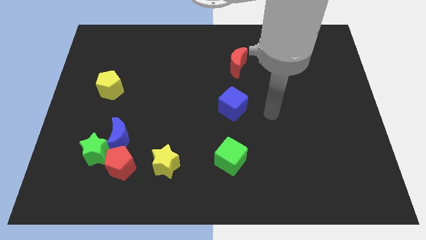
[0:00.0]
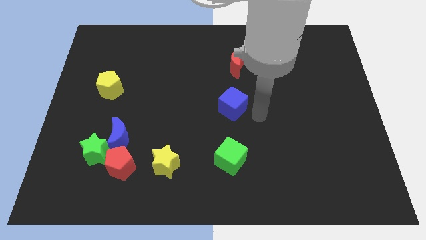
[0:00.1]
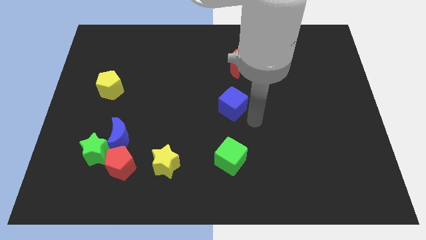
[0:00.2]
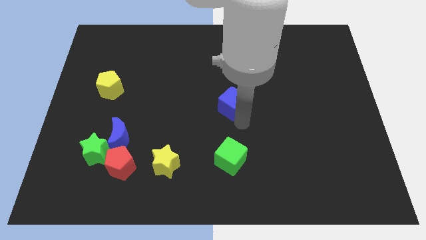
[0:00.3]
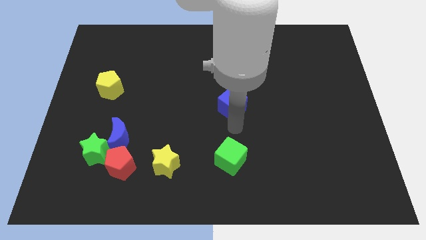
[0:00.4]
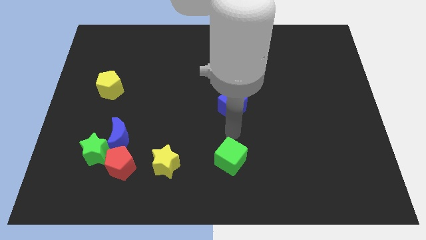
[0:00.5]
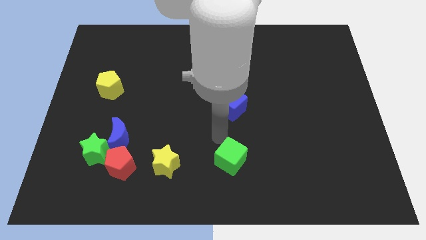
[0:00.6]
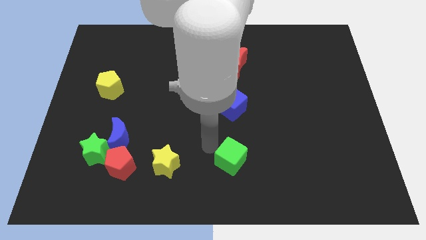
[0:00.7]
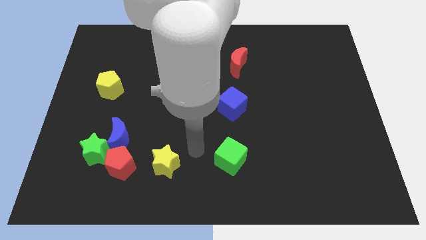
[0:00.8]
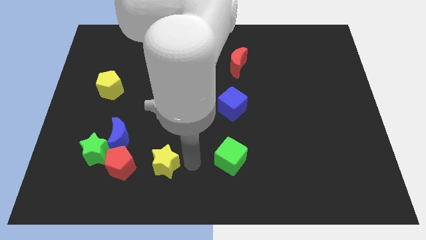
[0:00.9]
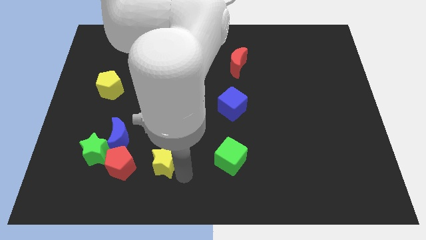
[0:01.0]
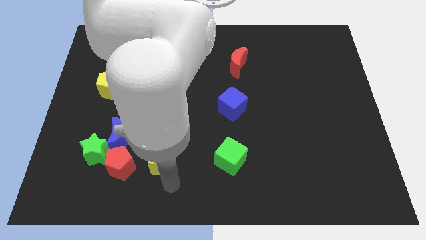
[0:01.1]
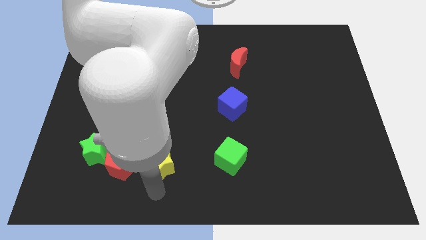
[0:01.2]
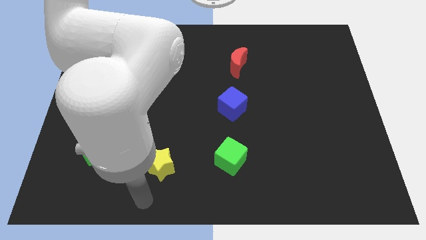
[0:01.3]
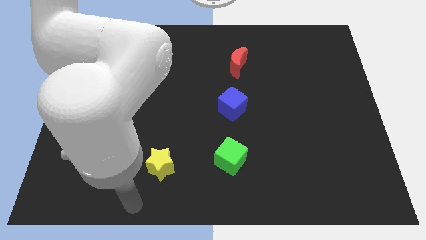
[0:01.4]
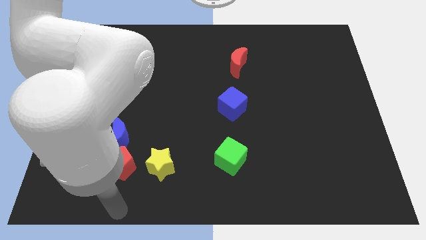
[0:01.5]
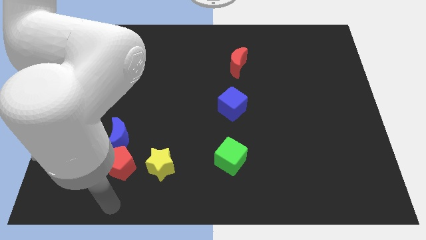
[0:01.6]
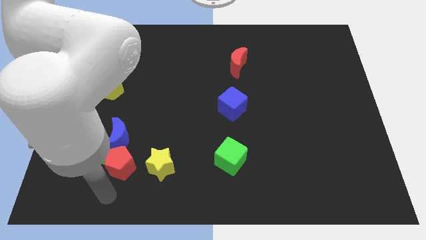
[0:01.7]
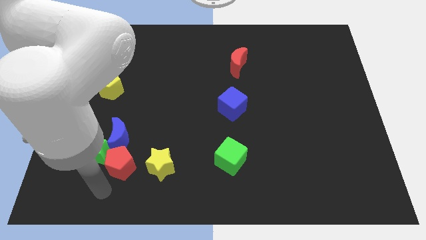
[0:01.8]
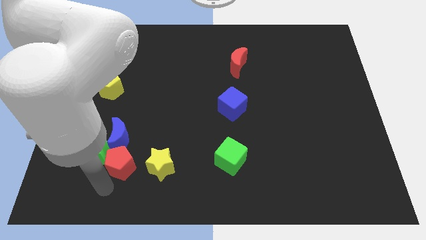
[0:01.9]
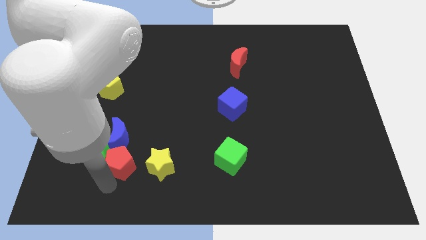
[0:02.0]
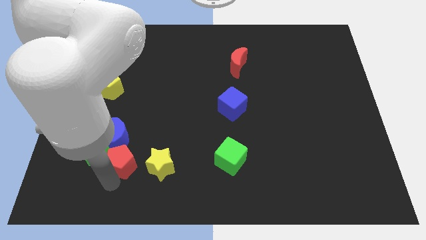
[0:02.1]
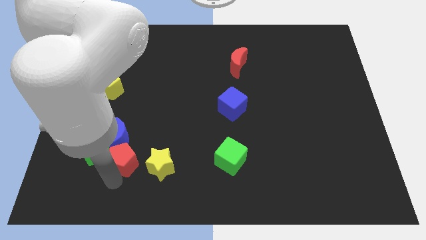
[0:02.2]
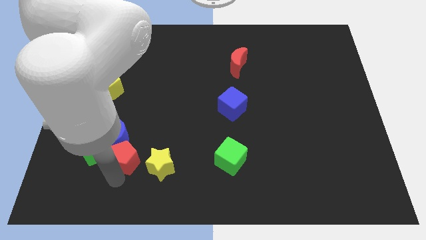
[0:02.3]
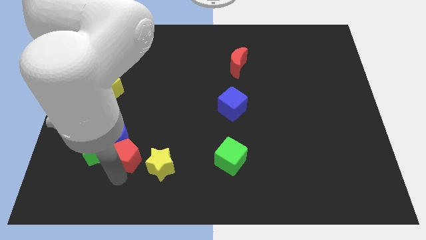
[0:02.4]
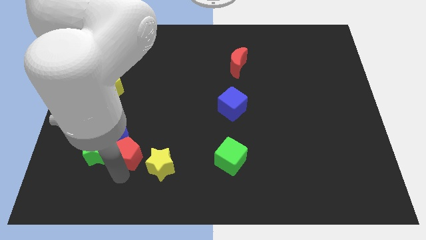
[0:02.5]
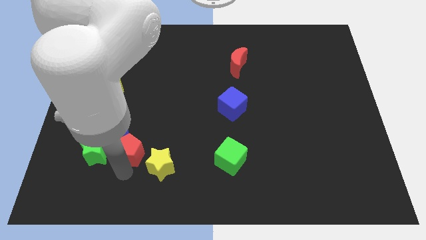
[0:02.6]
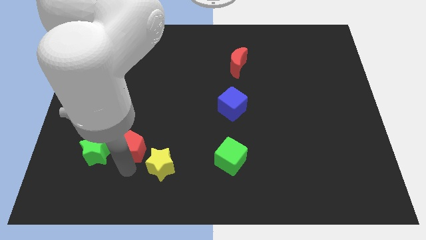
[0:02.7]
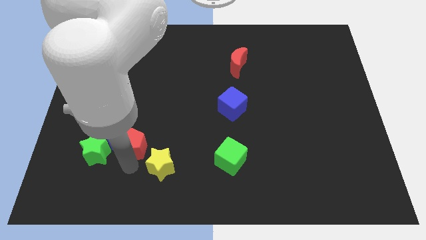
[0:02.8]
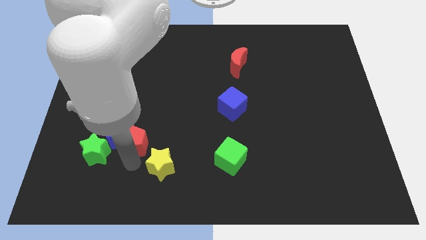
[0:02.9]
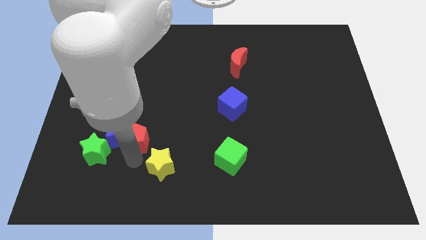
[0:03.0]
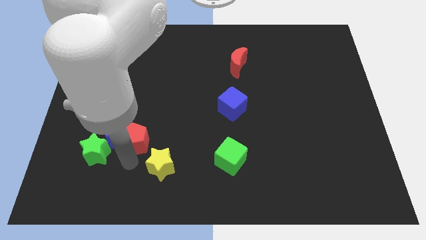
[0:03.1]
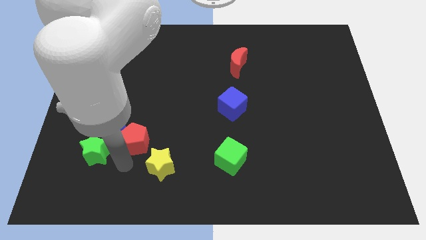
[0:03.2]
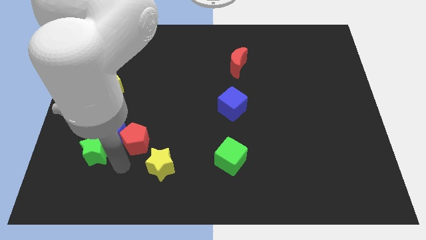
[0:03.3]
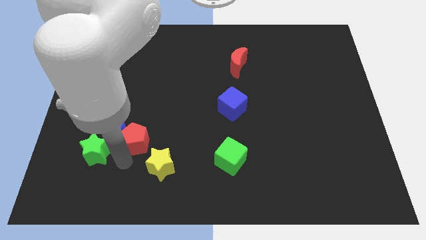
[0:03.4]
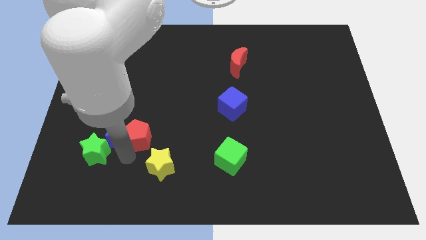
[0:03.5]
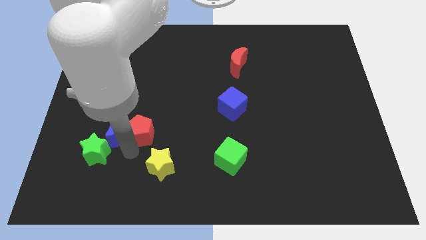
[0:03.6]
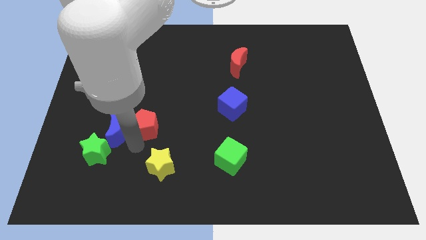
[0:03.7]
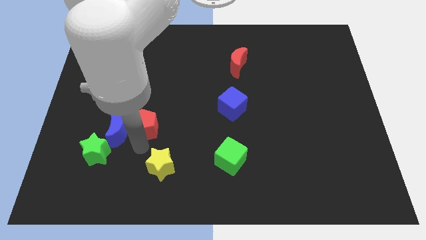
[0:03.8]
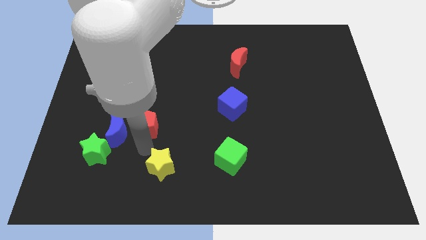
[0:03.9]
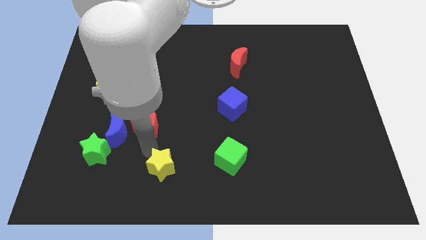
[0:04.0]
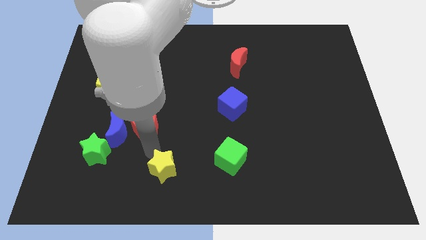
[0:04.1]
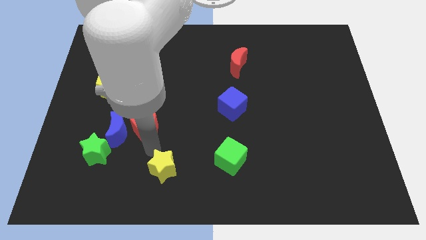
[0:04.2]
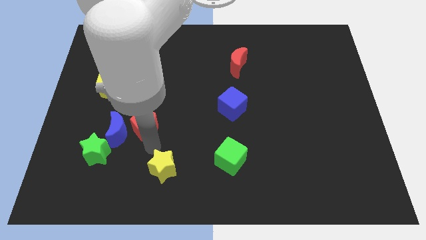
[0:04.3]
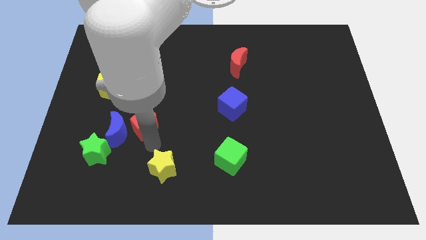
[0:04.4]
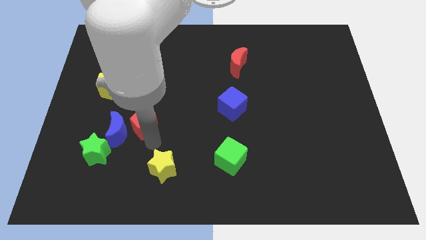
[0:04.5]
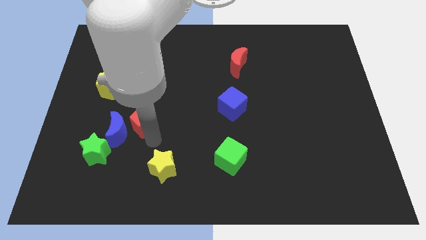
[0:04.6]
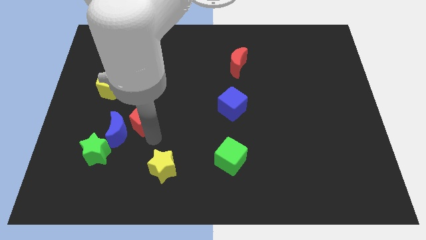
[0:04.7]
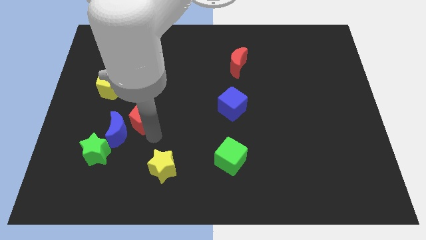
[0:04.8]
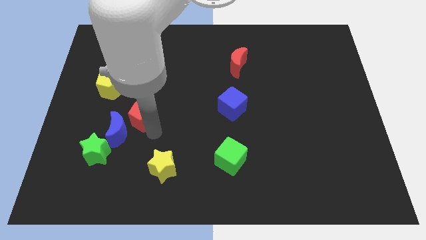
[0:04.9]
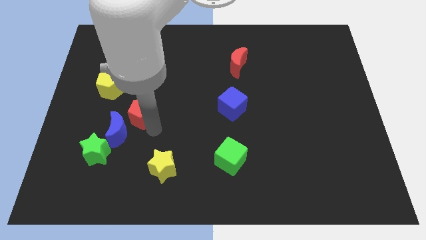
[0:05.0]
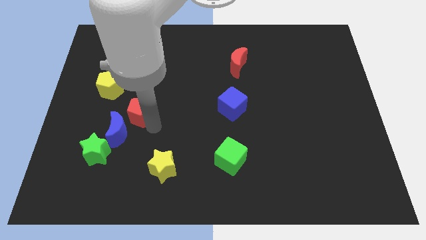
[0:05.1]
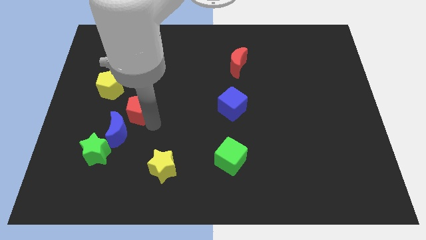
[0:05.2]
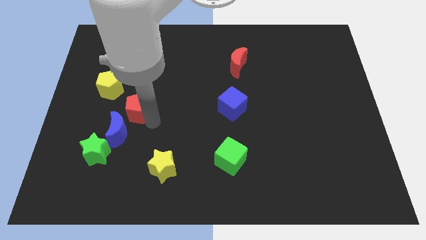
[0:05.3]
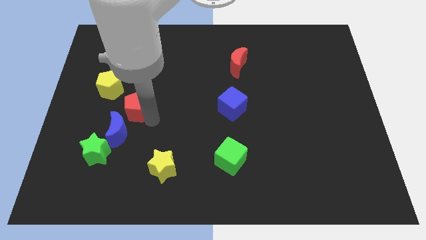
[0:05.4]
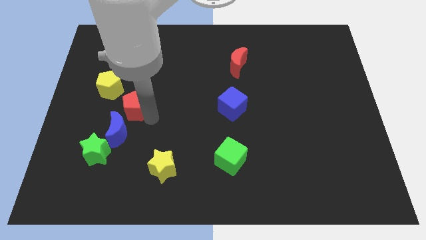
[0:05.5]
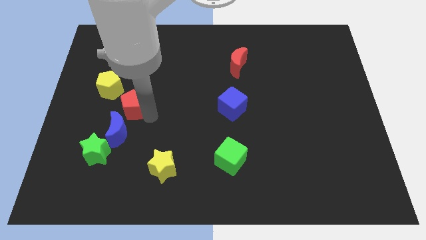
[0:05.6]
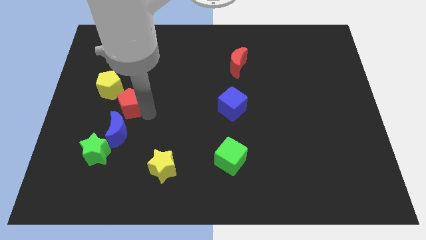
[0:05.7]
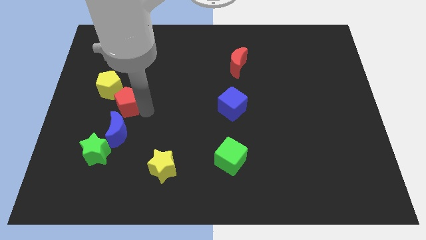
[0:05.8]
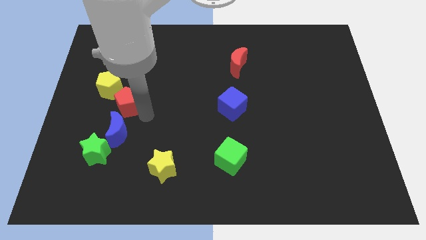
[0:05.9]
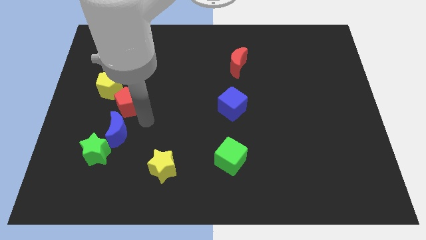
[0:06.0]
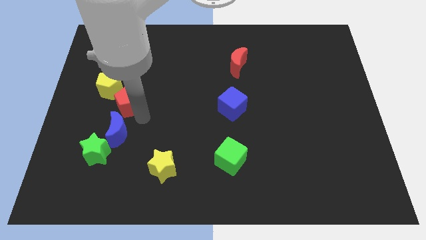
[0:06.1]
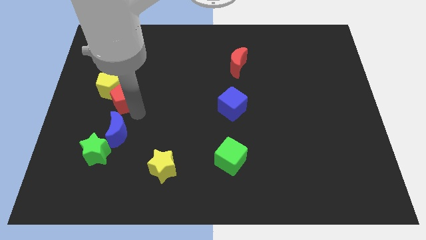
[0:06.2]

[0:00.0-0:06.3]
move the red pentagon to the yellow pentagon
